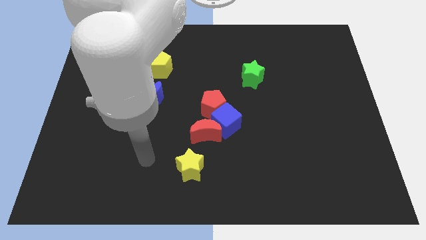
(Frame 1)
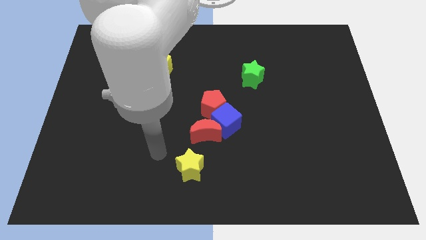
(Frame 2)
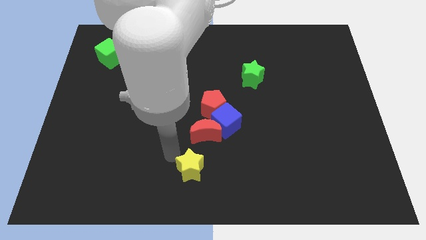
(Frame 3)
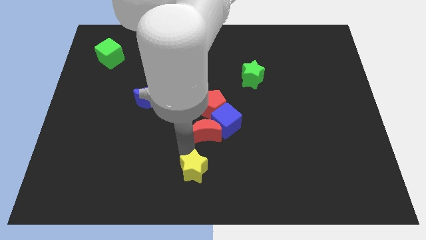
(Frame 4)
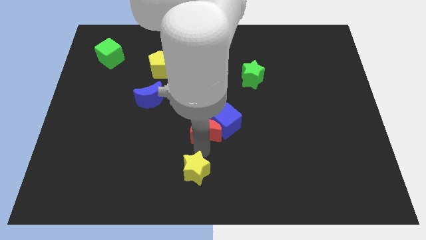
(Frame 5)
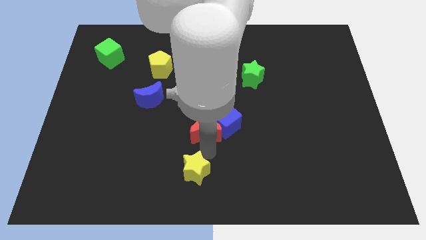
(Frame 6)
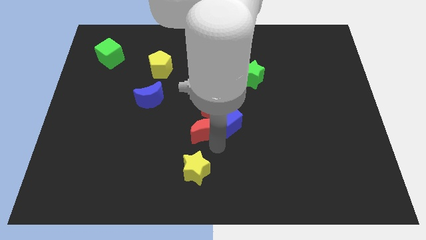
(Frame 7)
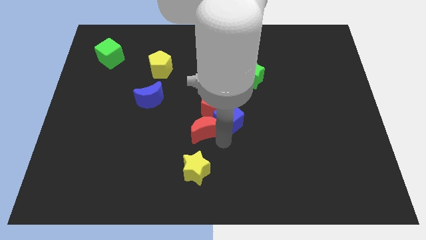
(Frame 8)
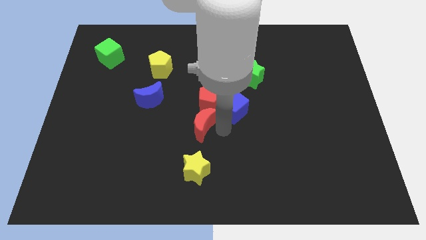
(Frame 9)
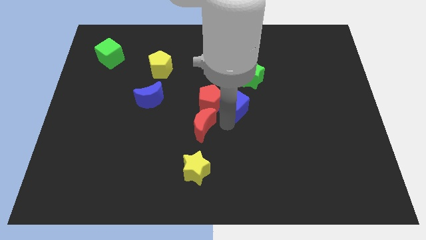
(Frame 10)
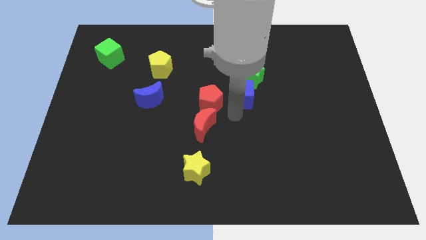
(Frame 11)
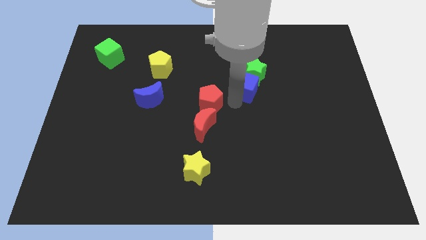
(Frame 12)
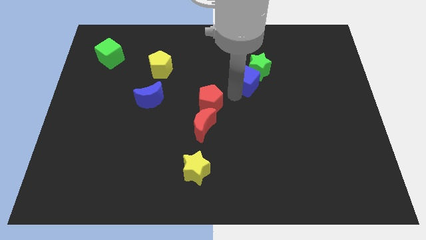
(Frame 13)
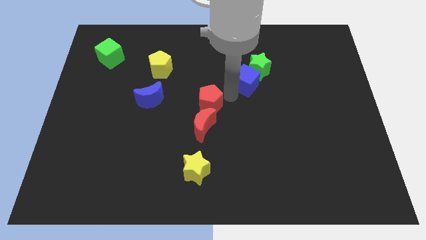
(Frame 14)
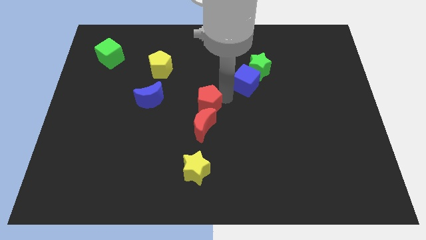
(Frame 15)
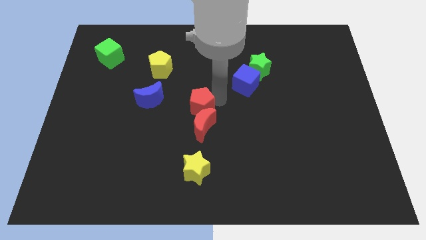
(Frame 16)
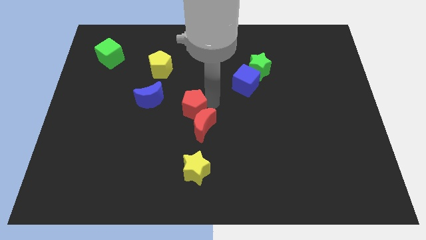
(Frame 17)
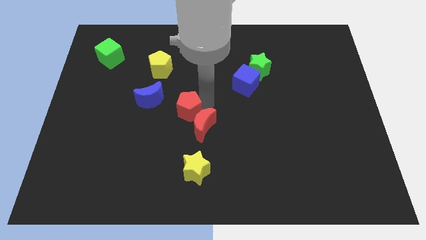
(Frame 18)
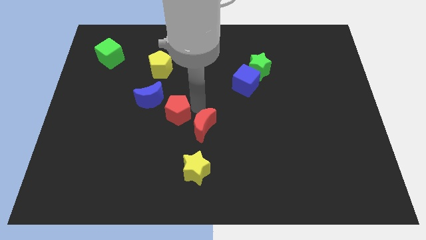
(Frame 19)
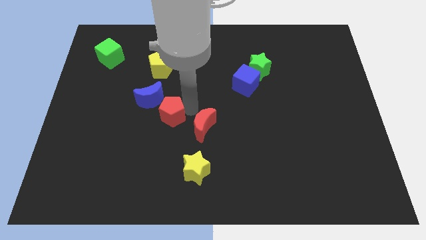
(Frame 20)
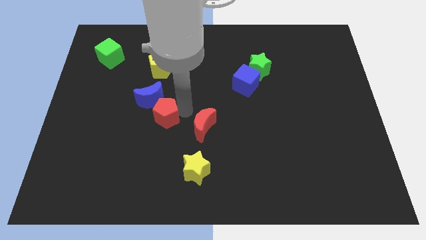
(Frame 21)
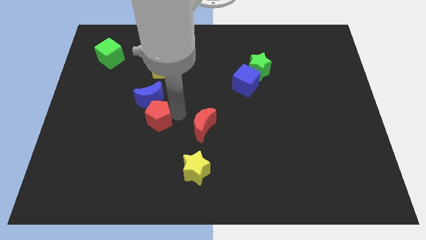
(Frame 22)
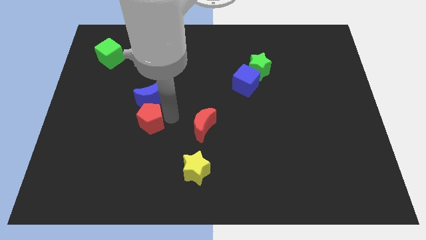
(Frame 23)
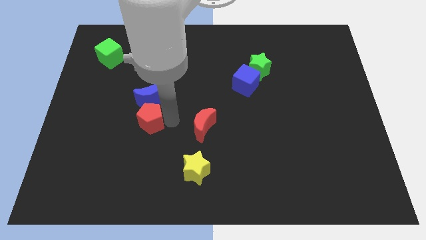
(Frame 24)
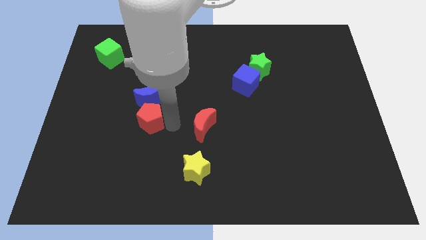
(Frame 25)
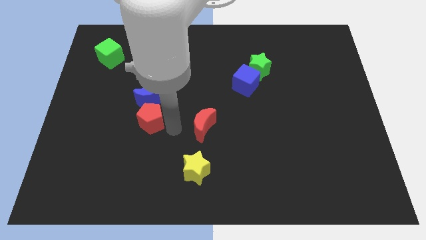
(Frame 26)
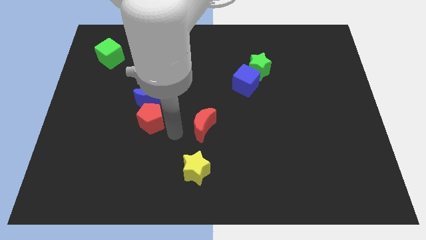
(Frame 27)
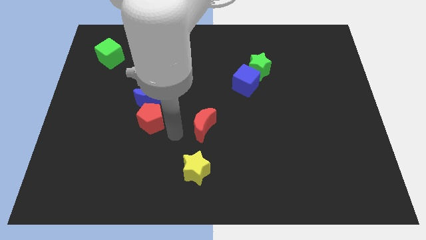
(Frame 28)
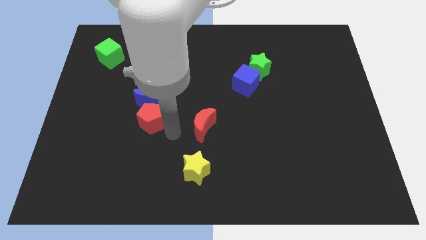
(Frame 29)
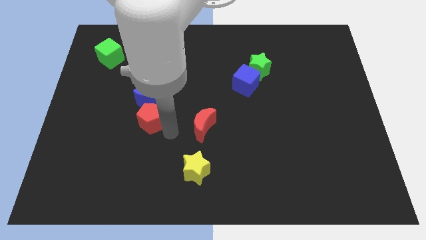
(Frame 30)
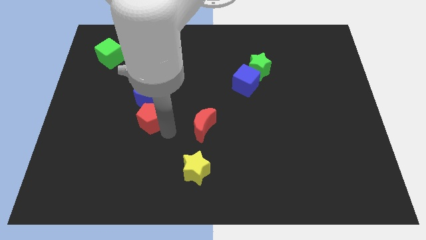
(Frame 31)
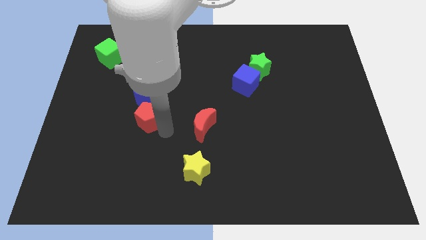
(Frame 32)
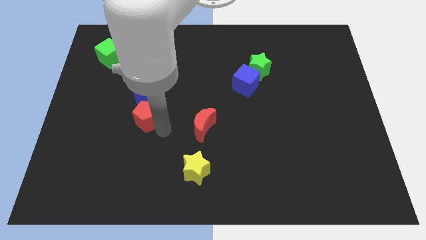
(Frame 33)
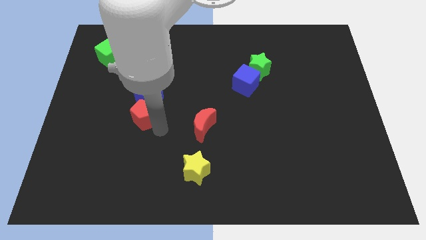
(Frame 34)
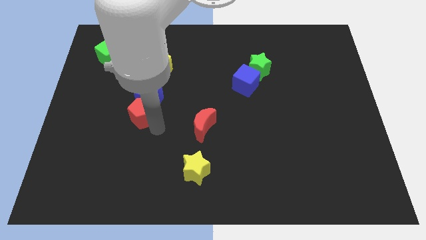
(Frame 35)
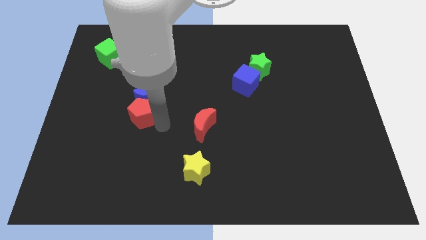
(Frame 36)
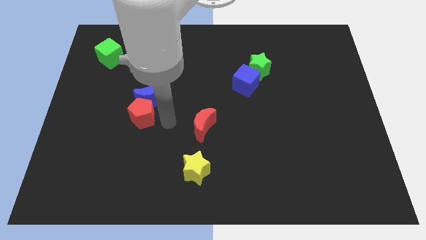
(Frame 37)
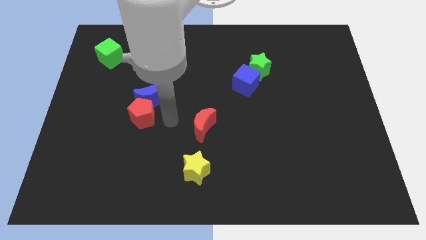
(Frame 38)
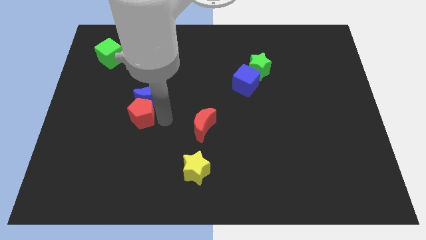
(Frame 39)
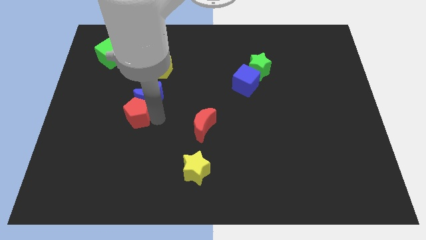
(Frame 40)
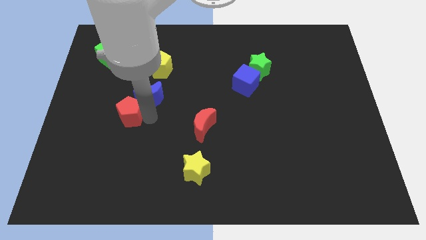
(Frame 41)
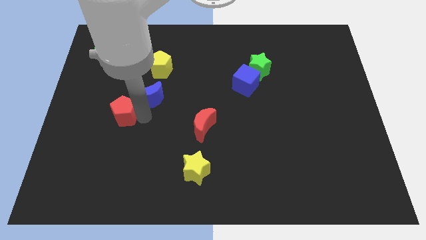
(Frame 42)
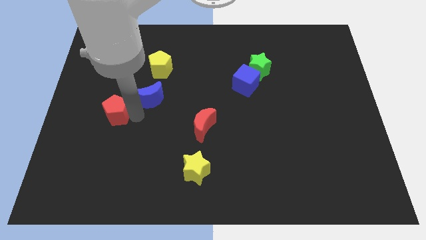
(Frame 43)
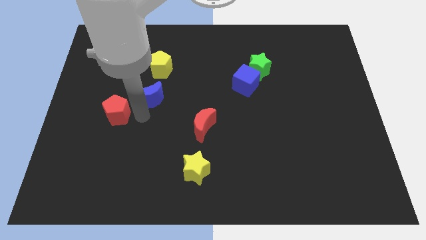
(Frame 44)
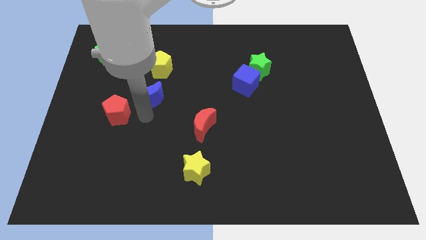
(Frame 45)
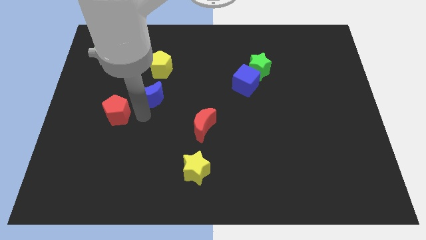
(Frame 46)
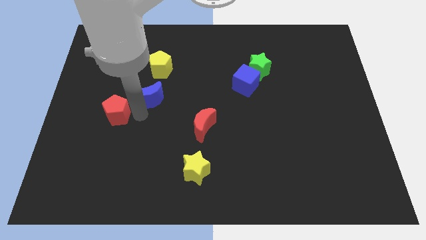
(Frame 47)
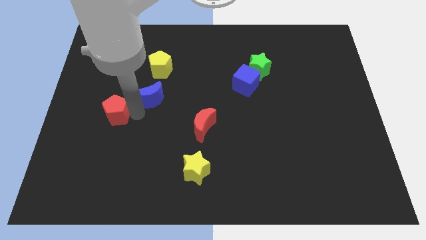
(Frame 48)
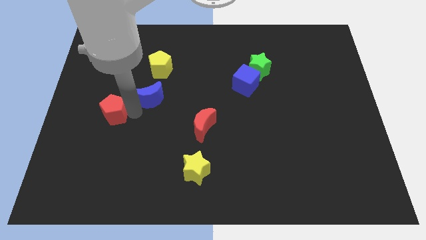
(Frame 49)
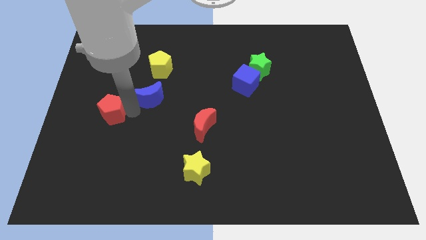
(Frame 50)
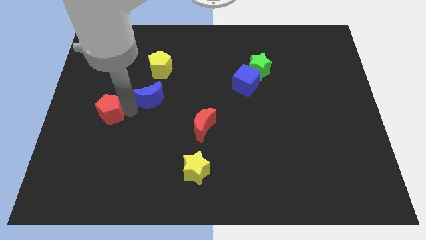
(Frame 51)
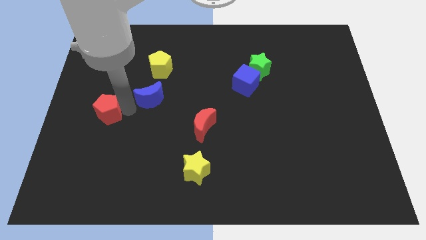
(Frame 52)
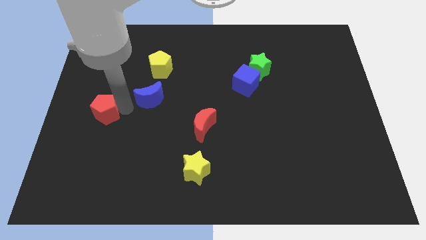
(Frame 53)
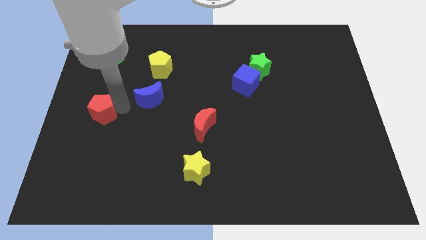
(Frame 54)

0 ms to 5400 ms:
move the red pentagon to the left side
